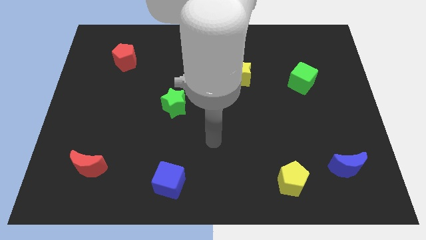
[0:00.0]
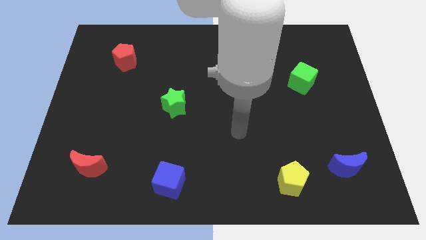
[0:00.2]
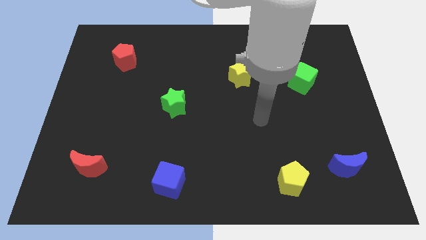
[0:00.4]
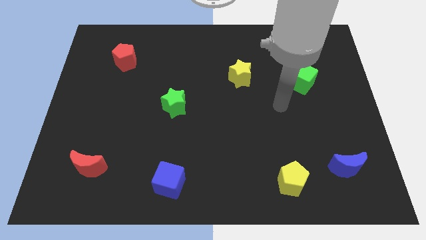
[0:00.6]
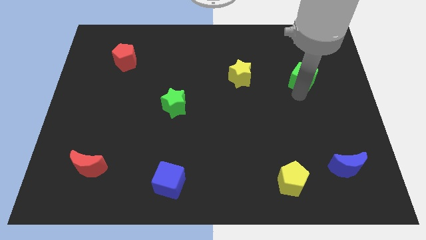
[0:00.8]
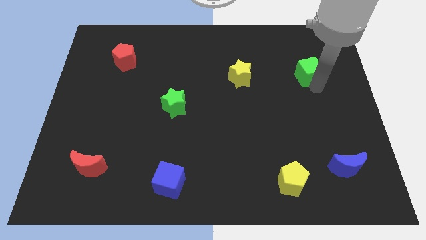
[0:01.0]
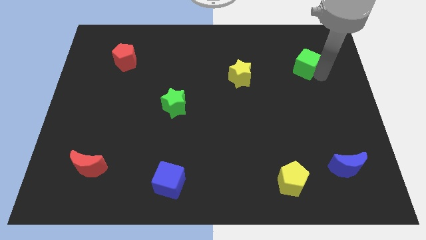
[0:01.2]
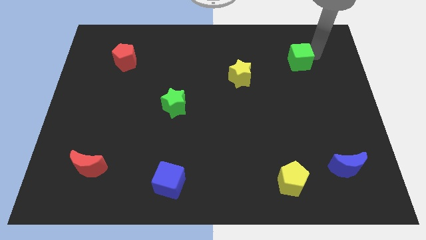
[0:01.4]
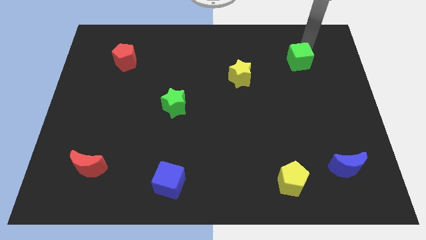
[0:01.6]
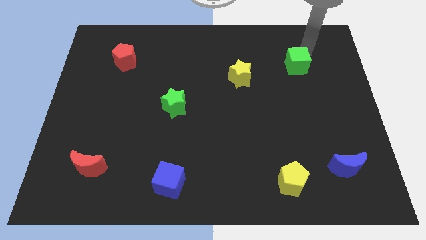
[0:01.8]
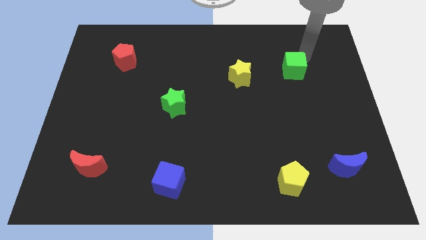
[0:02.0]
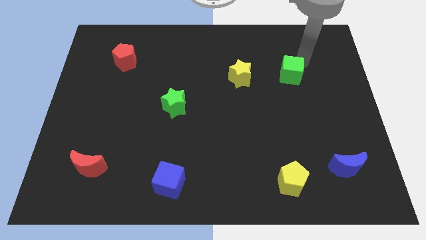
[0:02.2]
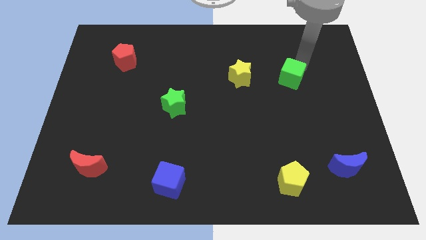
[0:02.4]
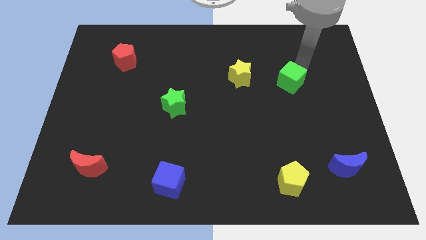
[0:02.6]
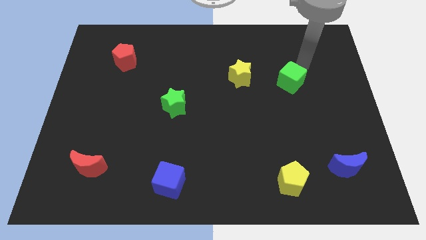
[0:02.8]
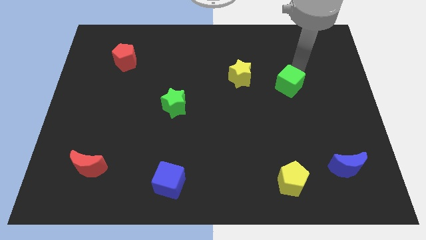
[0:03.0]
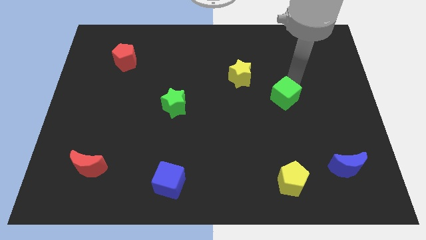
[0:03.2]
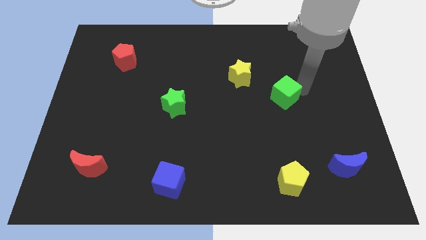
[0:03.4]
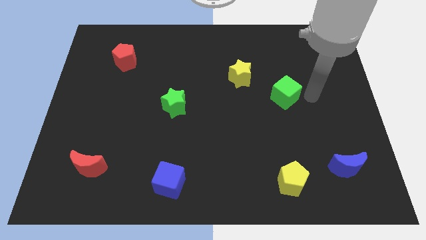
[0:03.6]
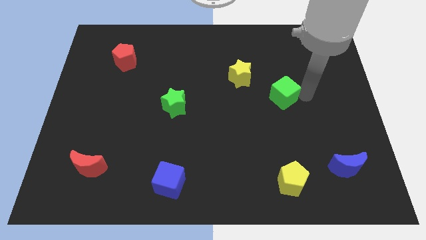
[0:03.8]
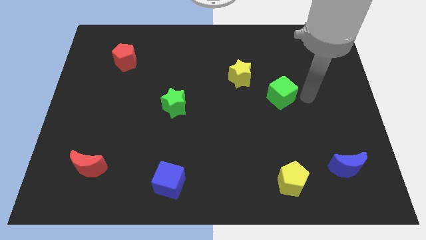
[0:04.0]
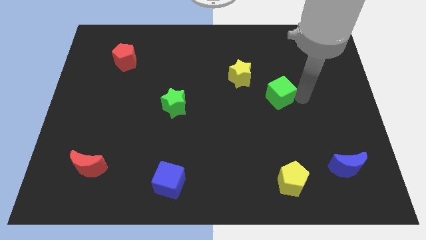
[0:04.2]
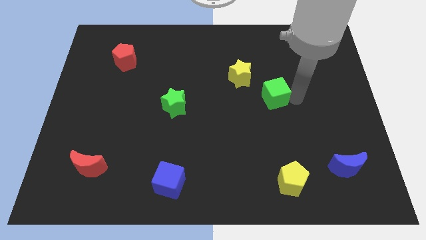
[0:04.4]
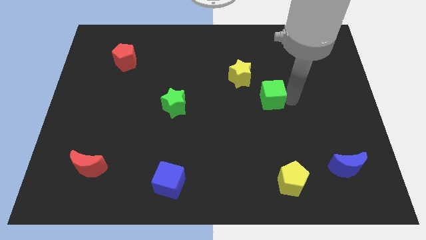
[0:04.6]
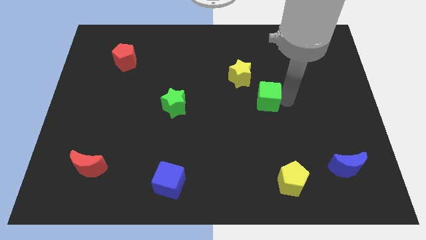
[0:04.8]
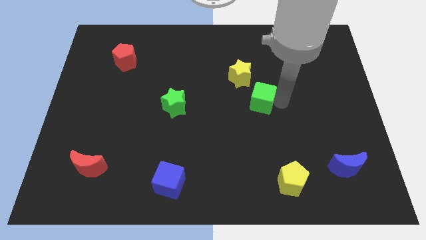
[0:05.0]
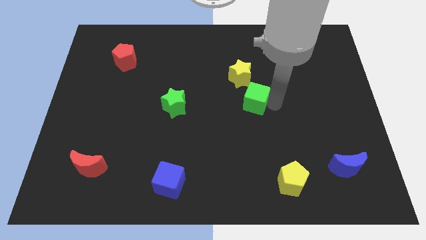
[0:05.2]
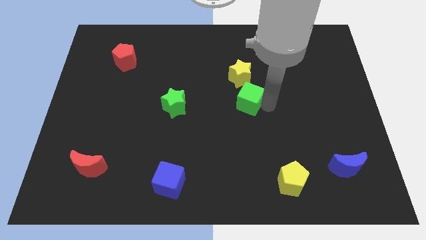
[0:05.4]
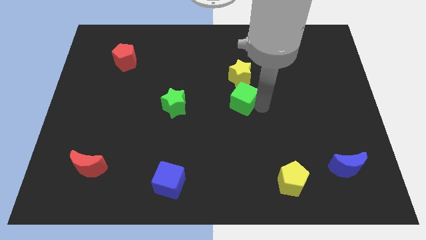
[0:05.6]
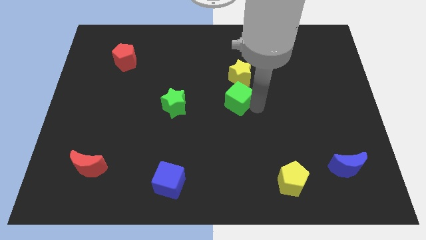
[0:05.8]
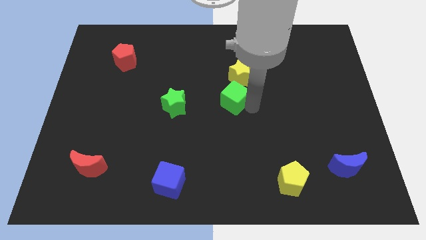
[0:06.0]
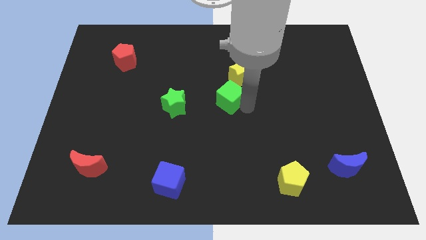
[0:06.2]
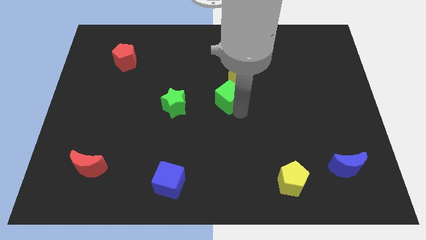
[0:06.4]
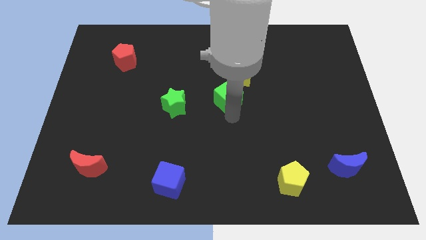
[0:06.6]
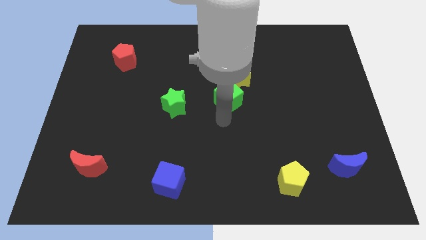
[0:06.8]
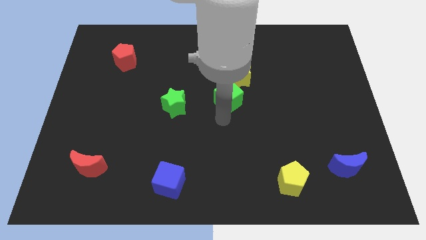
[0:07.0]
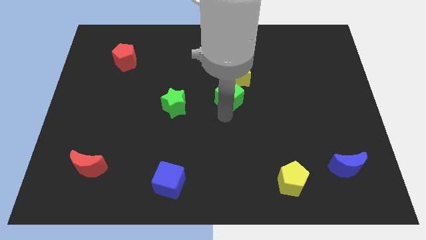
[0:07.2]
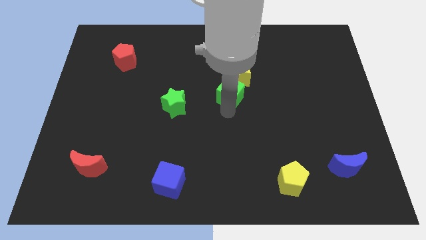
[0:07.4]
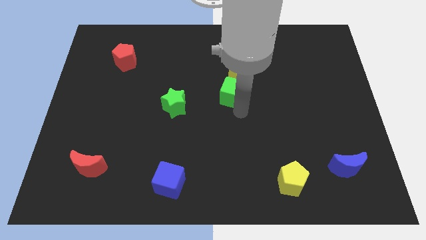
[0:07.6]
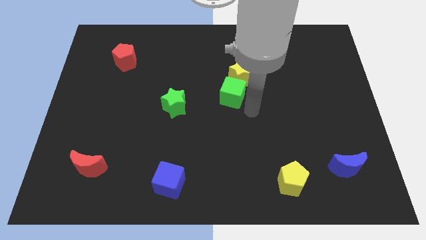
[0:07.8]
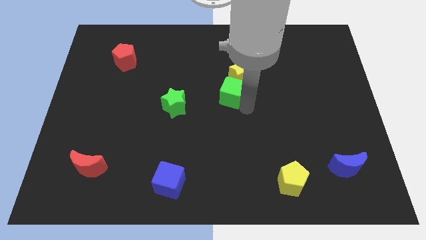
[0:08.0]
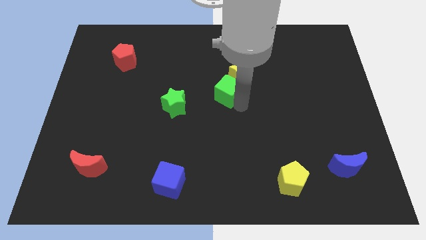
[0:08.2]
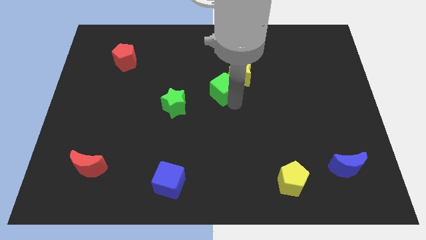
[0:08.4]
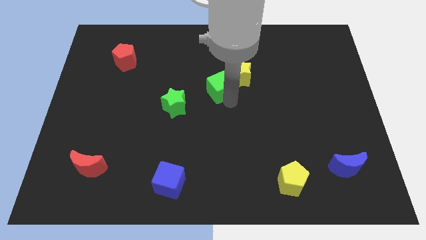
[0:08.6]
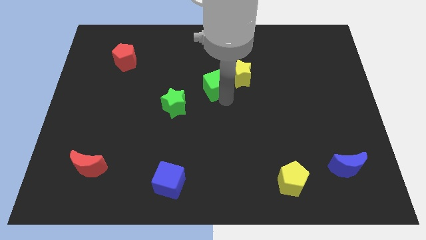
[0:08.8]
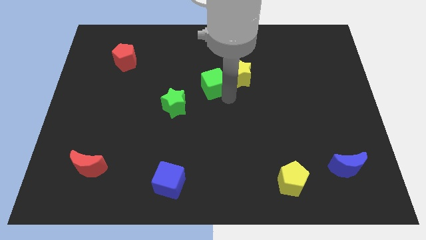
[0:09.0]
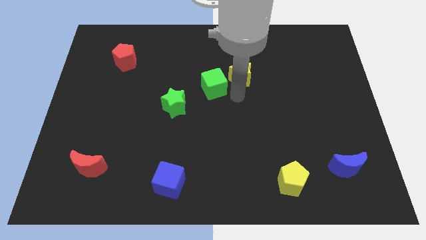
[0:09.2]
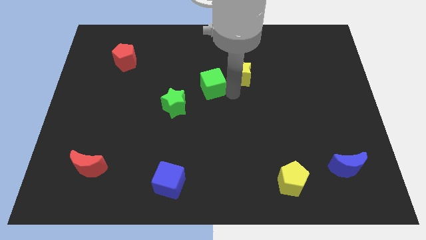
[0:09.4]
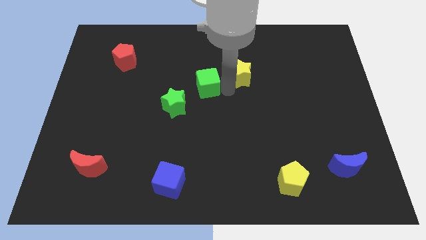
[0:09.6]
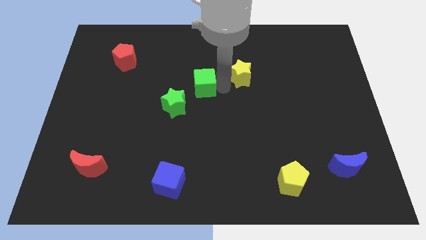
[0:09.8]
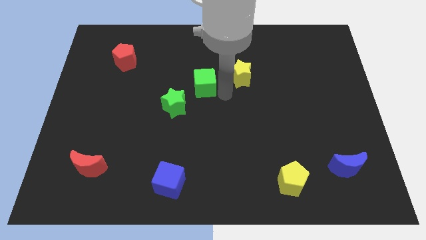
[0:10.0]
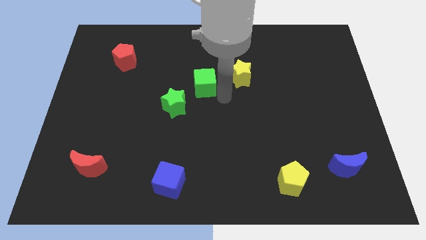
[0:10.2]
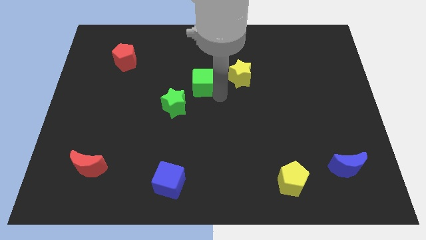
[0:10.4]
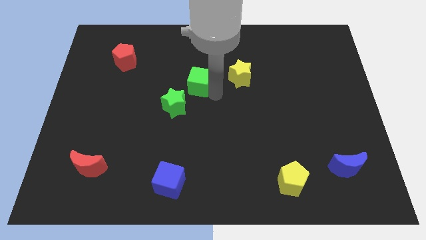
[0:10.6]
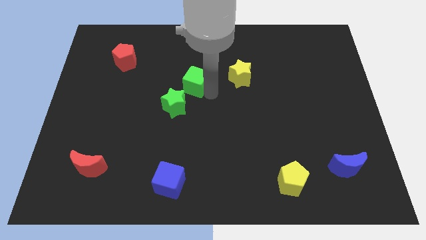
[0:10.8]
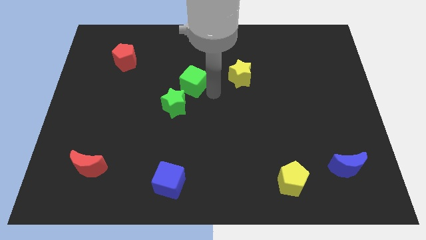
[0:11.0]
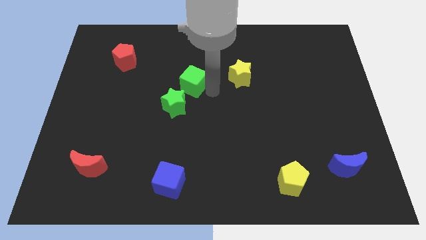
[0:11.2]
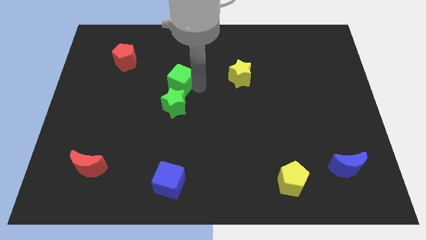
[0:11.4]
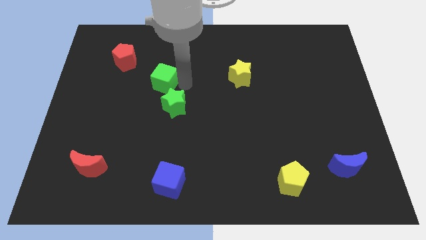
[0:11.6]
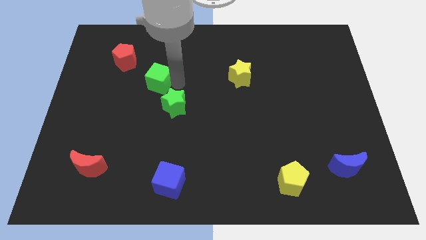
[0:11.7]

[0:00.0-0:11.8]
slide the green cube diagonally down and to the right of the red pentagon

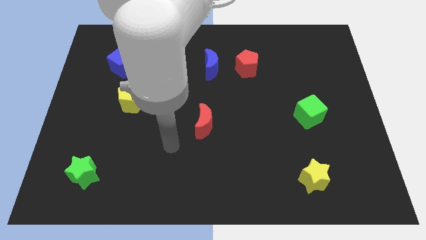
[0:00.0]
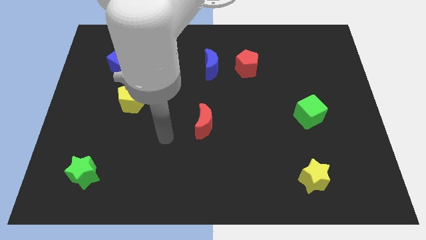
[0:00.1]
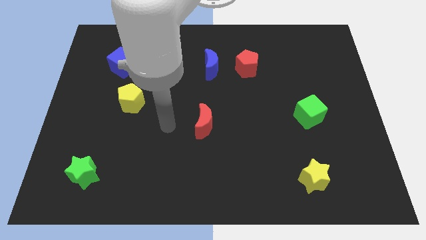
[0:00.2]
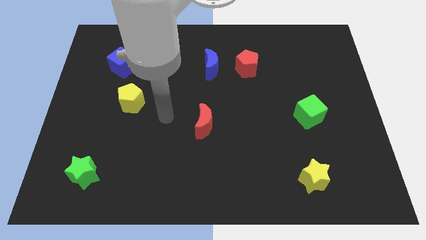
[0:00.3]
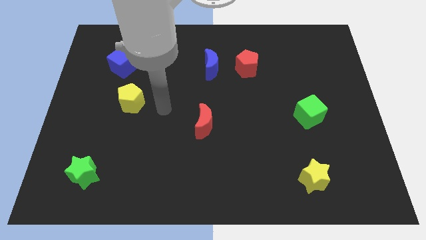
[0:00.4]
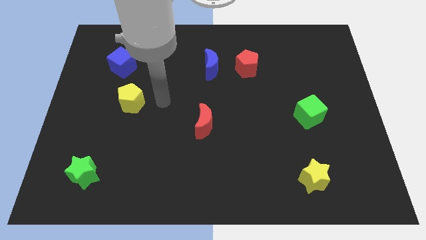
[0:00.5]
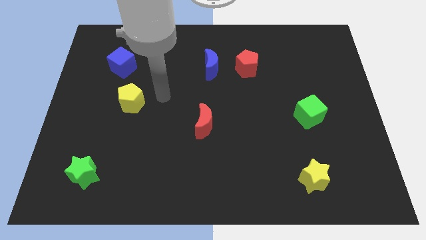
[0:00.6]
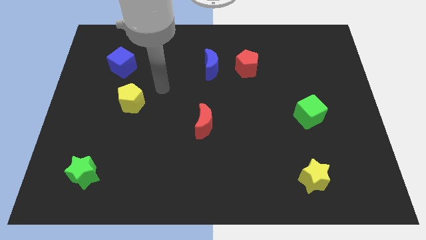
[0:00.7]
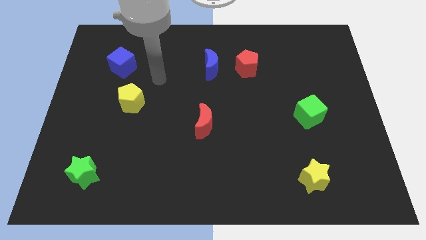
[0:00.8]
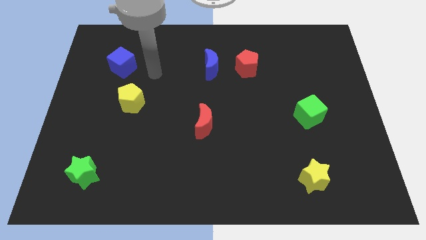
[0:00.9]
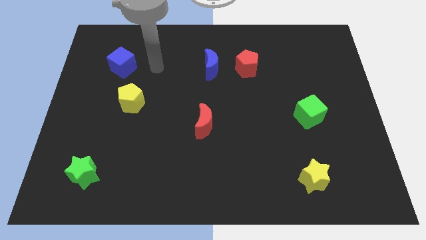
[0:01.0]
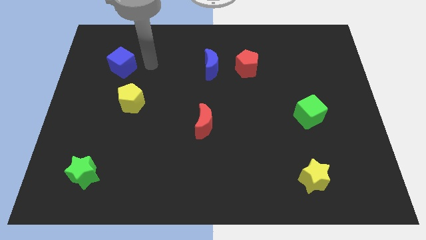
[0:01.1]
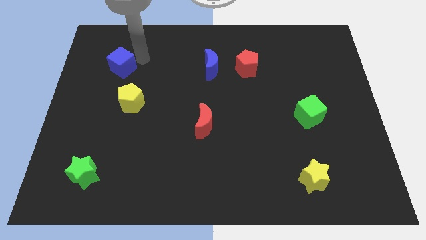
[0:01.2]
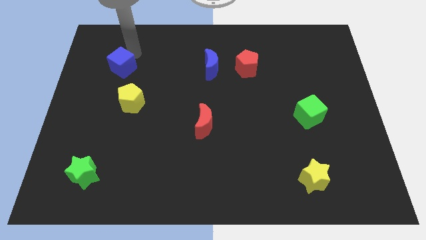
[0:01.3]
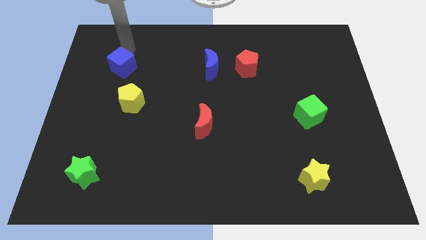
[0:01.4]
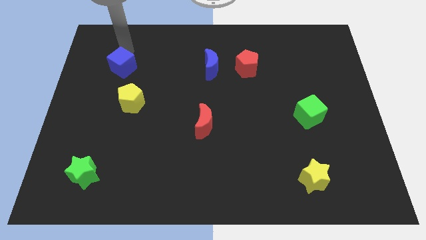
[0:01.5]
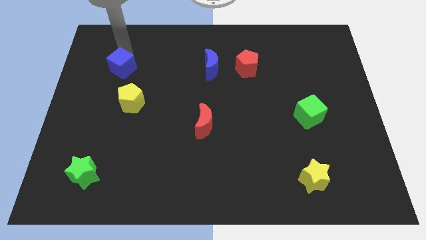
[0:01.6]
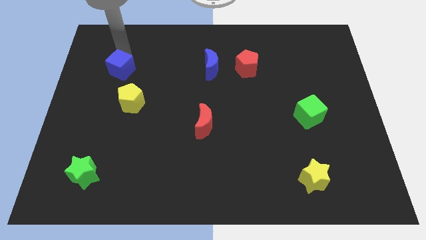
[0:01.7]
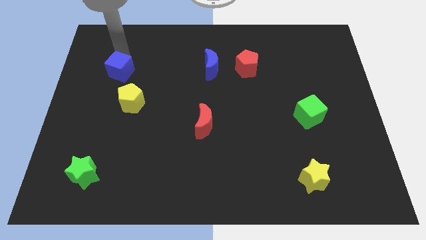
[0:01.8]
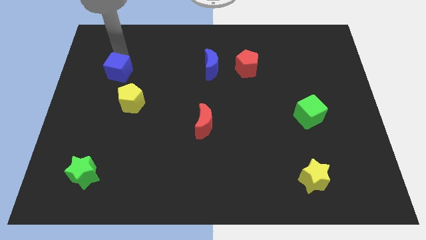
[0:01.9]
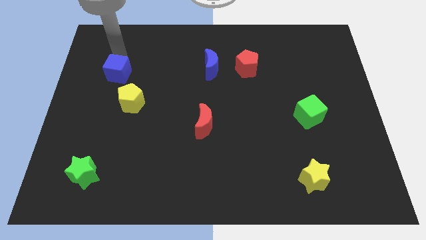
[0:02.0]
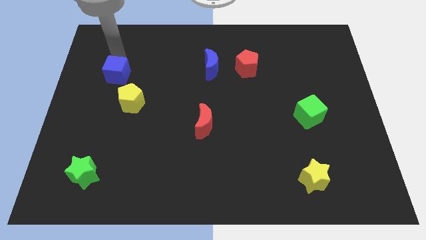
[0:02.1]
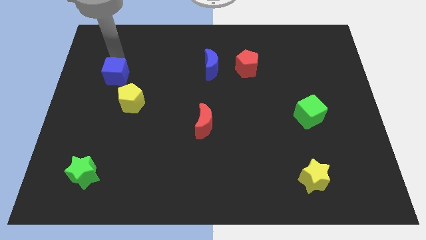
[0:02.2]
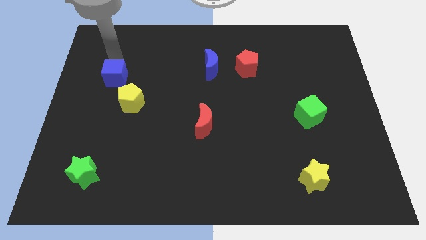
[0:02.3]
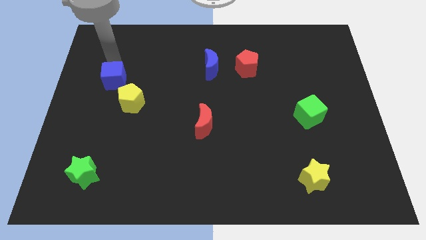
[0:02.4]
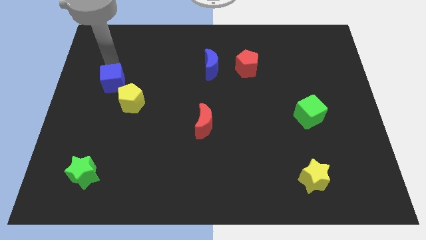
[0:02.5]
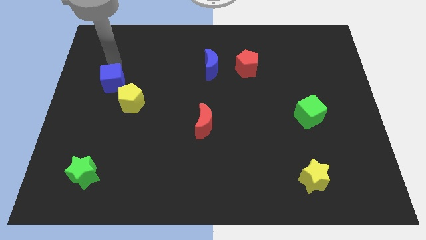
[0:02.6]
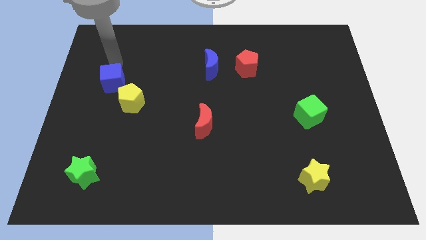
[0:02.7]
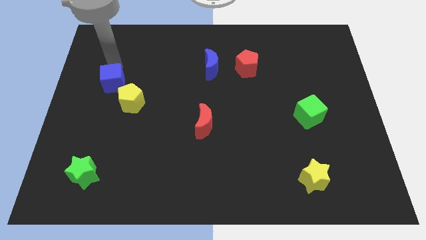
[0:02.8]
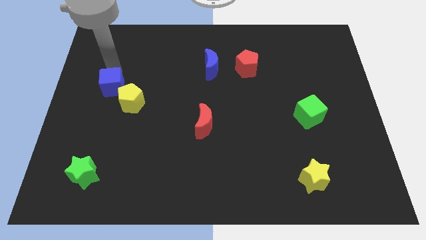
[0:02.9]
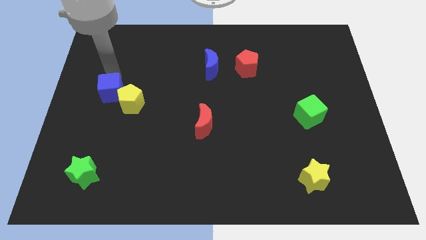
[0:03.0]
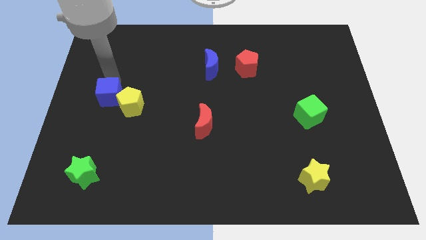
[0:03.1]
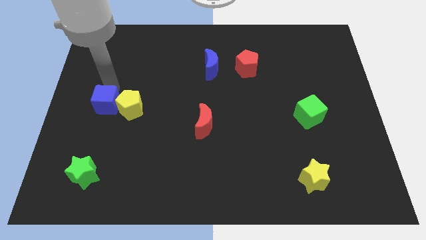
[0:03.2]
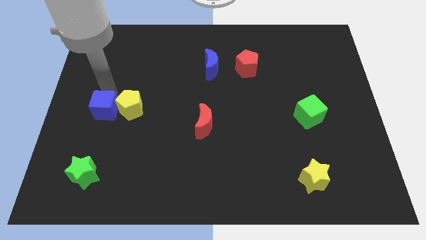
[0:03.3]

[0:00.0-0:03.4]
move the blue cube to the bottom left side of the yellow pentagon
